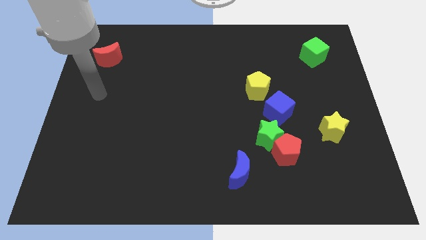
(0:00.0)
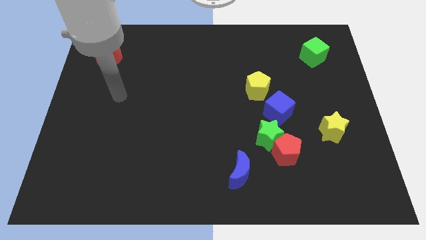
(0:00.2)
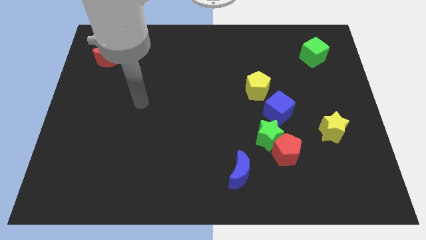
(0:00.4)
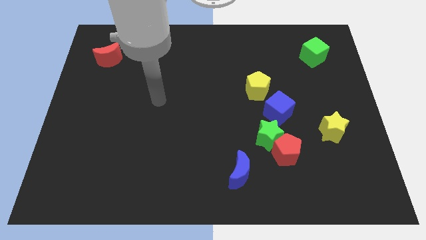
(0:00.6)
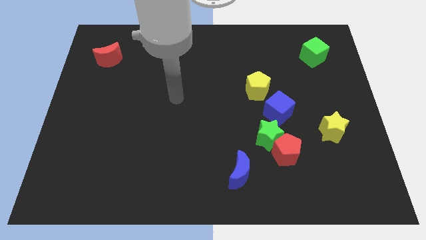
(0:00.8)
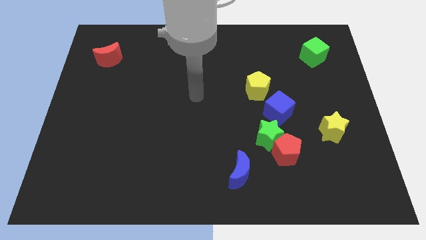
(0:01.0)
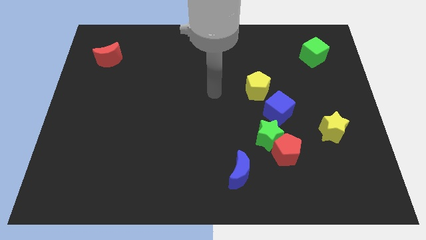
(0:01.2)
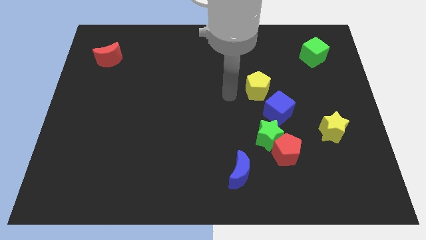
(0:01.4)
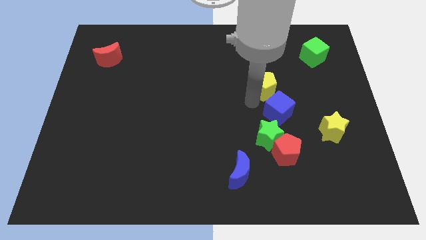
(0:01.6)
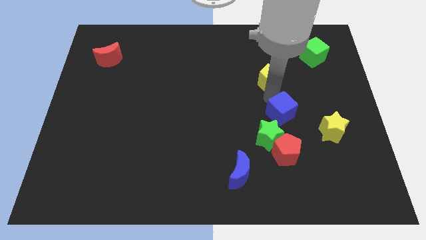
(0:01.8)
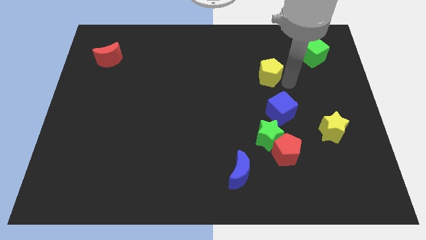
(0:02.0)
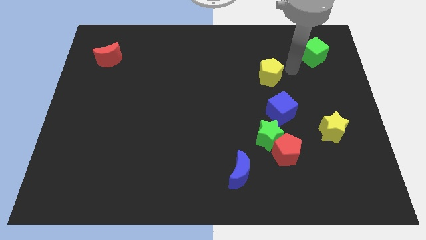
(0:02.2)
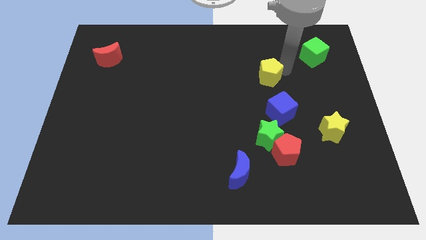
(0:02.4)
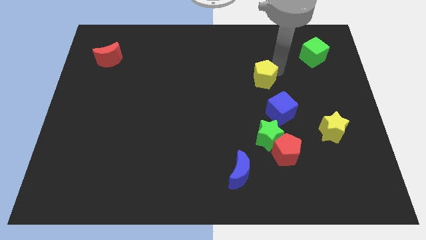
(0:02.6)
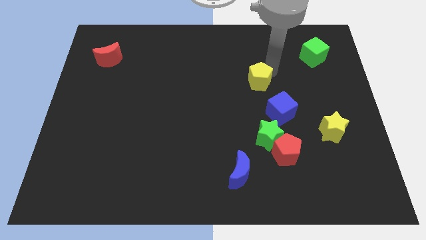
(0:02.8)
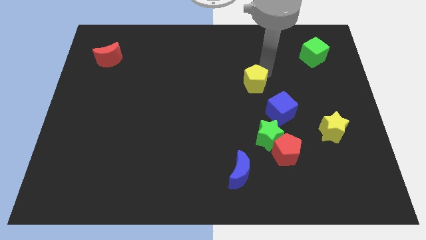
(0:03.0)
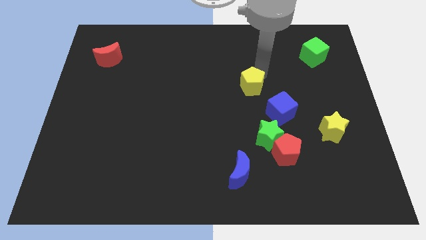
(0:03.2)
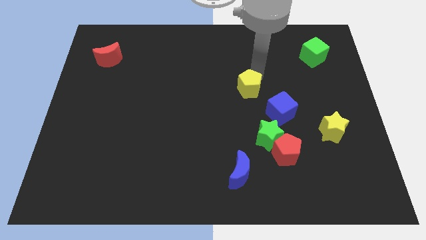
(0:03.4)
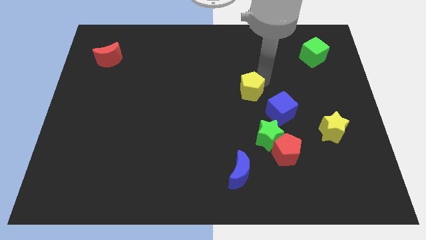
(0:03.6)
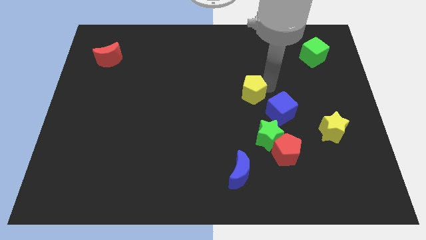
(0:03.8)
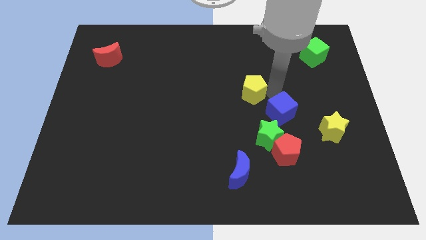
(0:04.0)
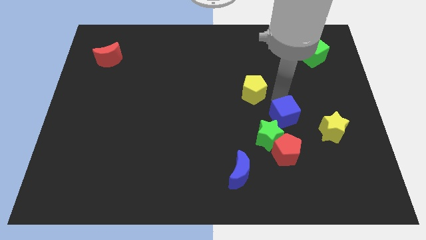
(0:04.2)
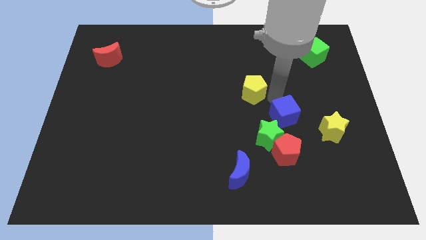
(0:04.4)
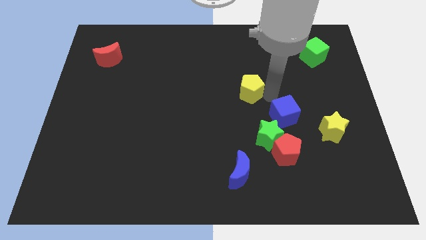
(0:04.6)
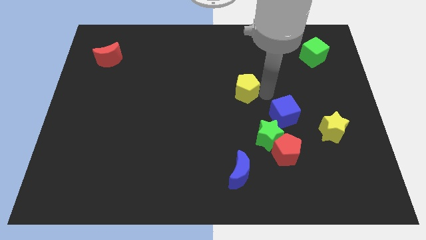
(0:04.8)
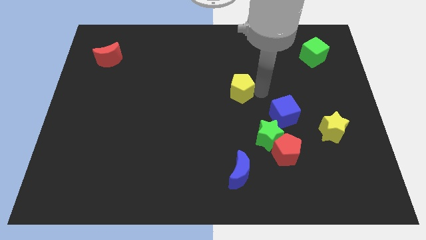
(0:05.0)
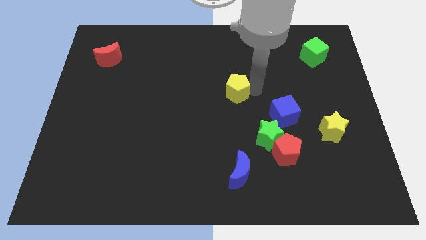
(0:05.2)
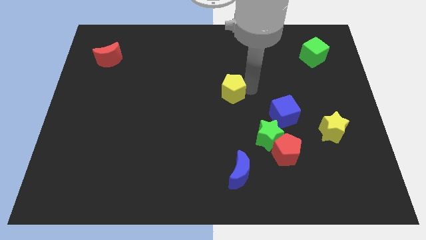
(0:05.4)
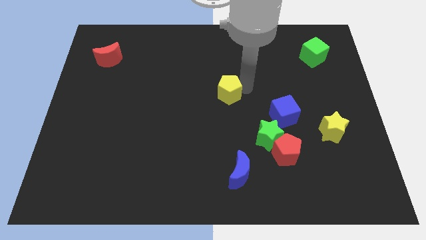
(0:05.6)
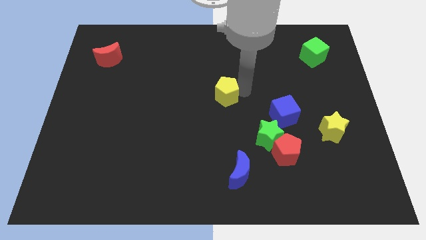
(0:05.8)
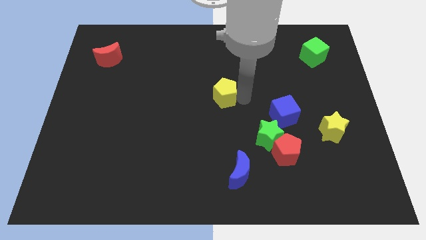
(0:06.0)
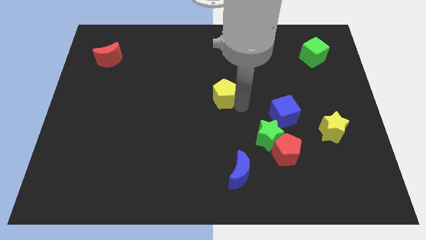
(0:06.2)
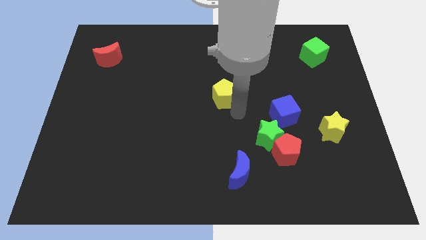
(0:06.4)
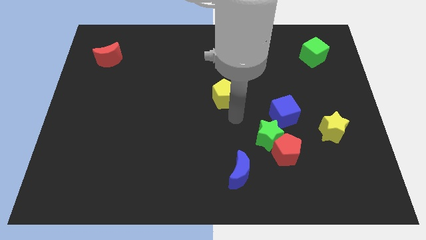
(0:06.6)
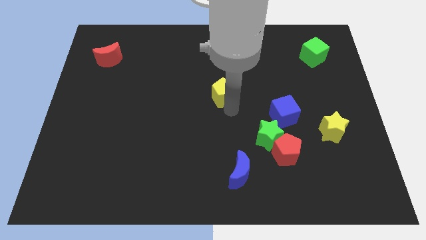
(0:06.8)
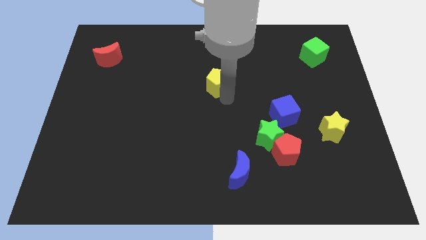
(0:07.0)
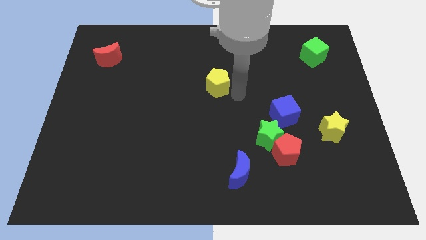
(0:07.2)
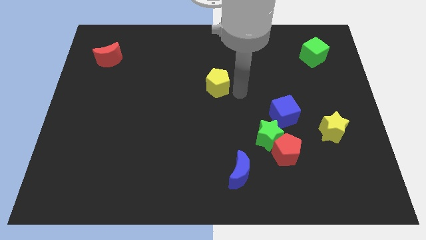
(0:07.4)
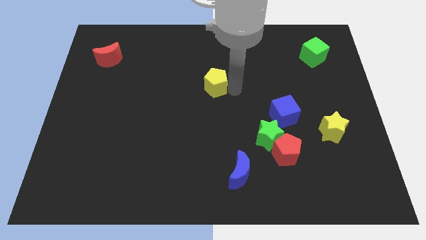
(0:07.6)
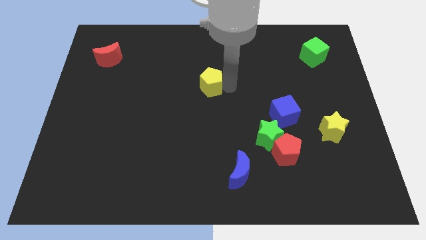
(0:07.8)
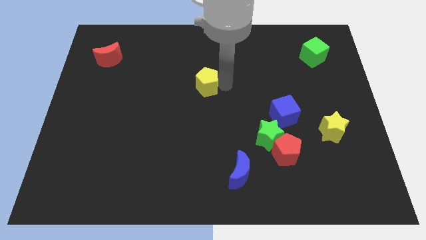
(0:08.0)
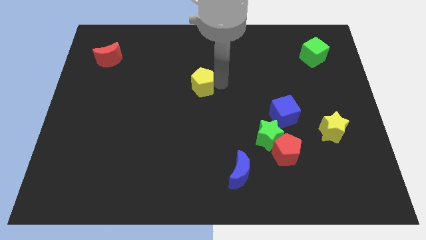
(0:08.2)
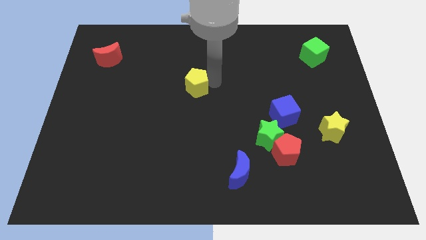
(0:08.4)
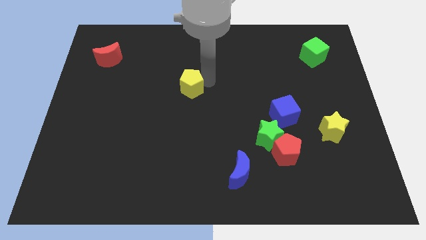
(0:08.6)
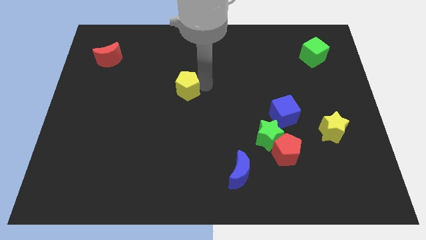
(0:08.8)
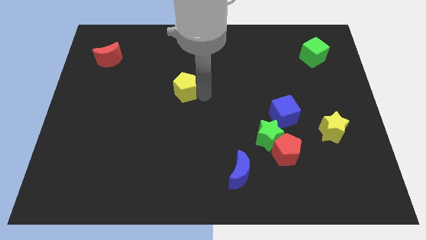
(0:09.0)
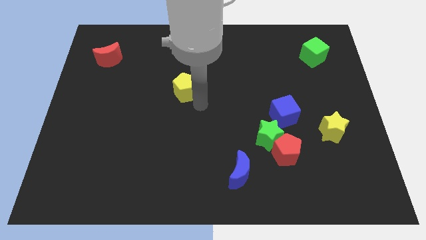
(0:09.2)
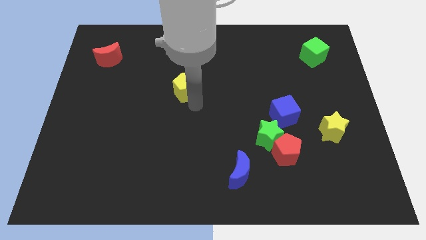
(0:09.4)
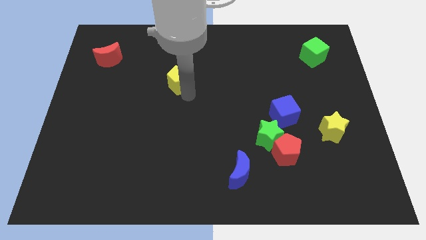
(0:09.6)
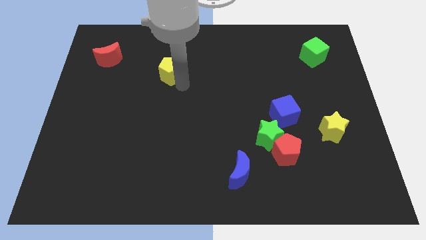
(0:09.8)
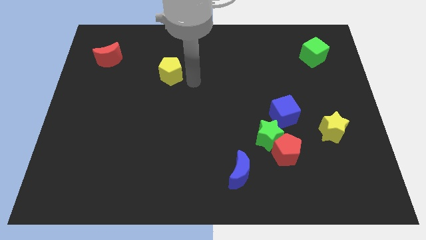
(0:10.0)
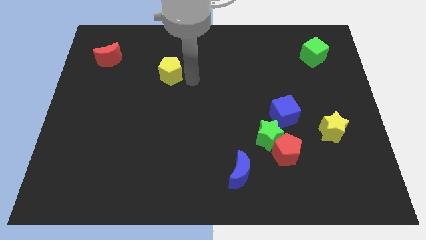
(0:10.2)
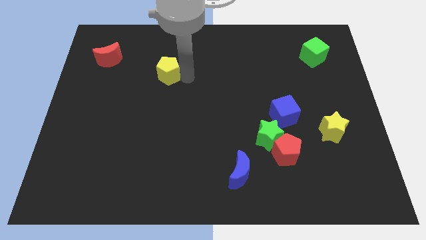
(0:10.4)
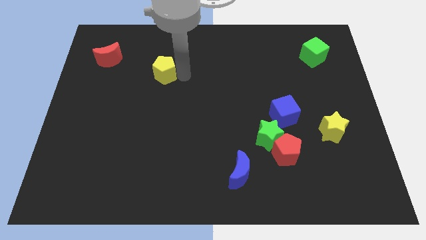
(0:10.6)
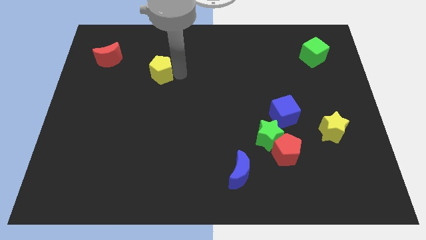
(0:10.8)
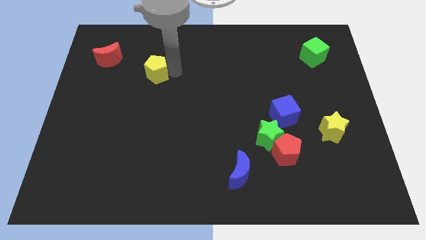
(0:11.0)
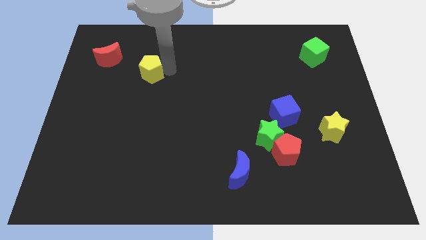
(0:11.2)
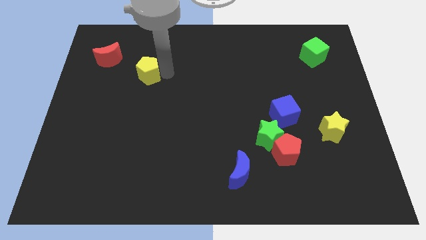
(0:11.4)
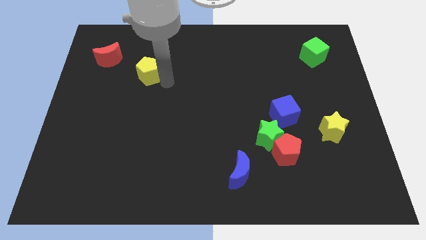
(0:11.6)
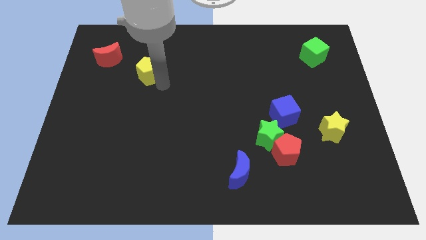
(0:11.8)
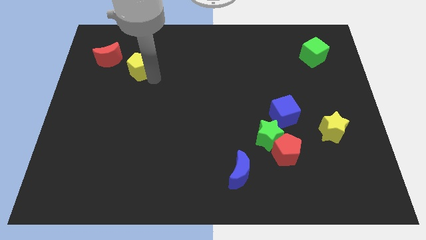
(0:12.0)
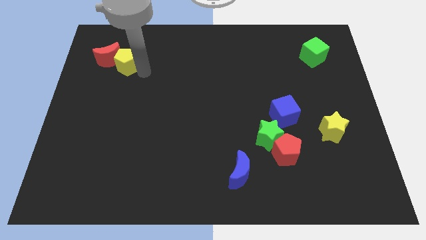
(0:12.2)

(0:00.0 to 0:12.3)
put the yellow pentagon to the red moon

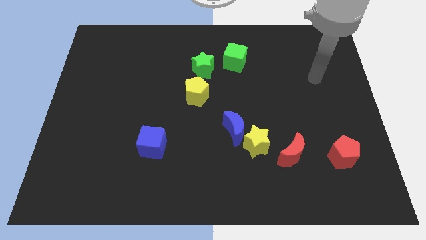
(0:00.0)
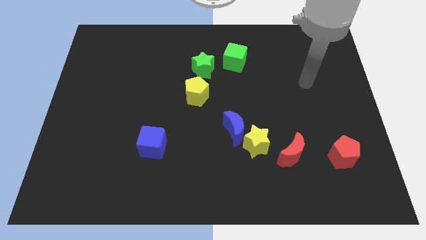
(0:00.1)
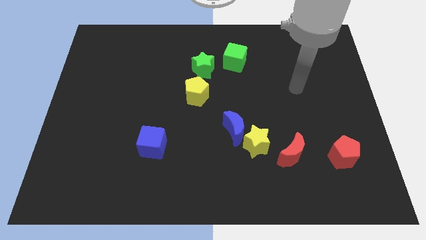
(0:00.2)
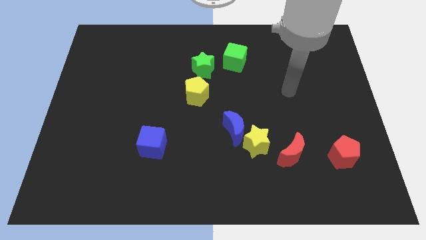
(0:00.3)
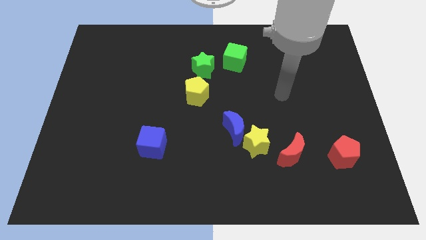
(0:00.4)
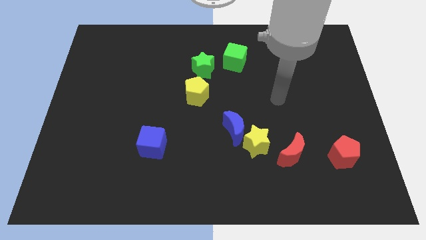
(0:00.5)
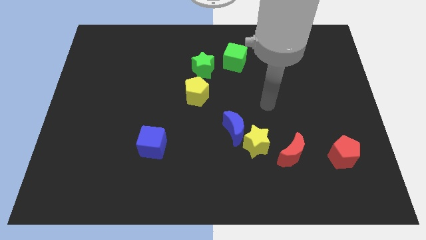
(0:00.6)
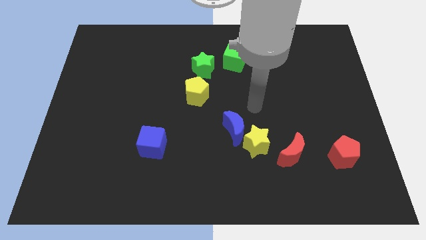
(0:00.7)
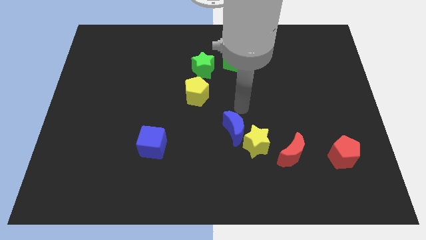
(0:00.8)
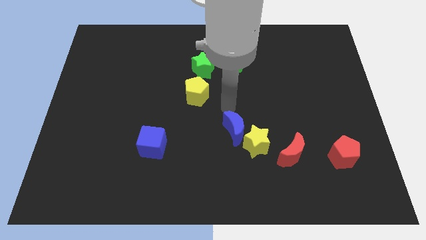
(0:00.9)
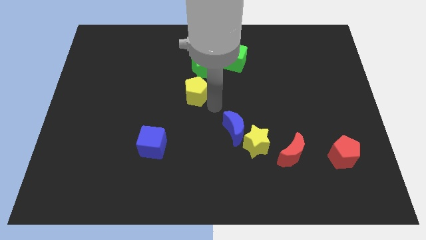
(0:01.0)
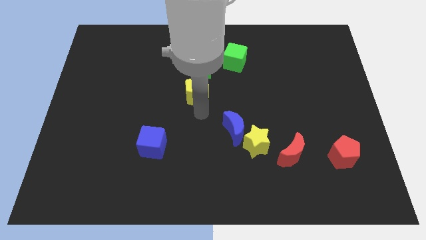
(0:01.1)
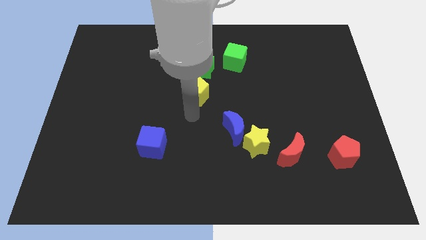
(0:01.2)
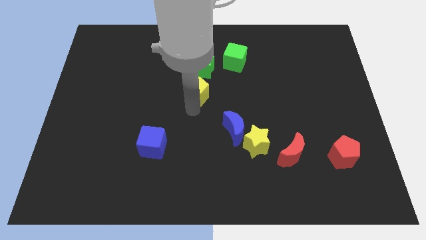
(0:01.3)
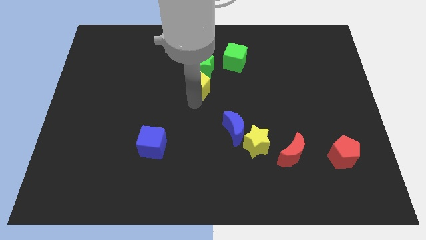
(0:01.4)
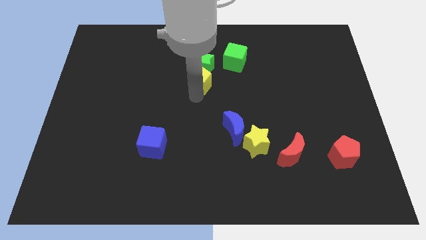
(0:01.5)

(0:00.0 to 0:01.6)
slide the yellow pentagon towards the green star
